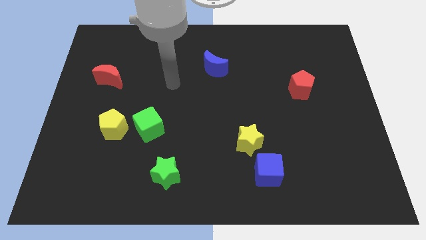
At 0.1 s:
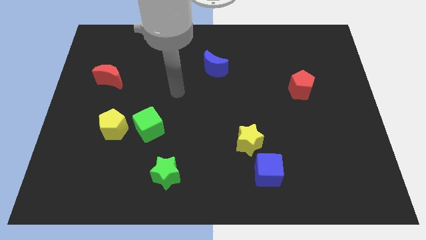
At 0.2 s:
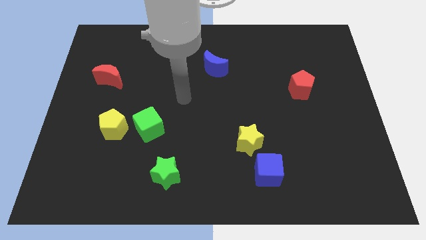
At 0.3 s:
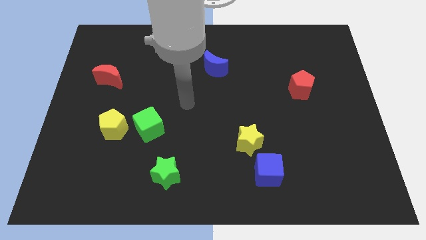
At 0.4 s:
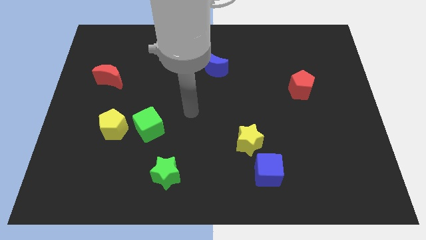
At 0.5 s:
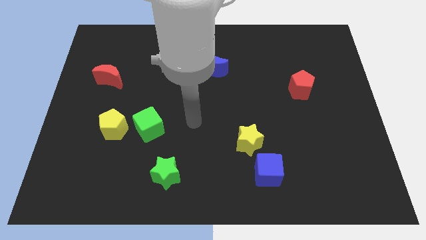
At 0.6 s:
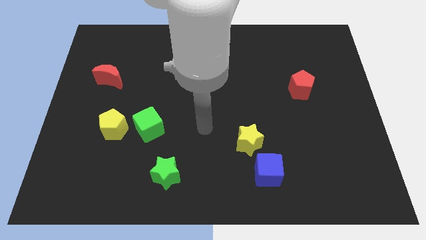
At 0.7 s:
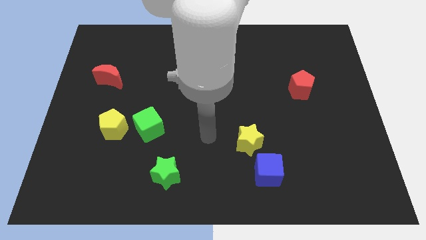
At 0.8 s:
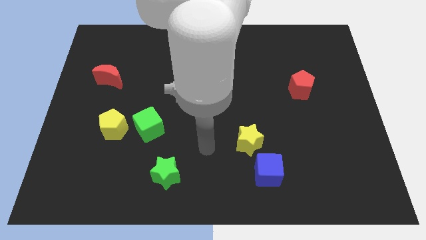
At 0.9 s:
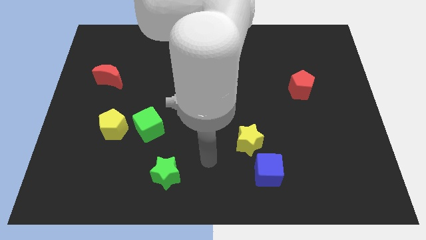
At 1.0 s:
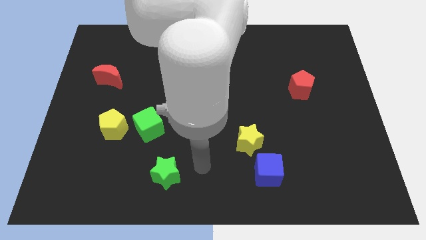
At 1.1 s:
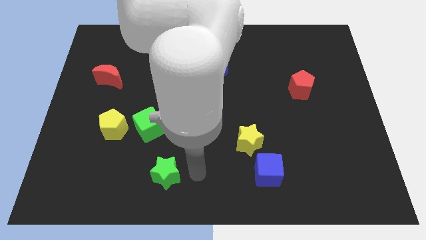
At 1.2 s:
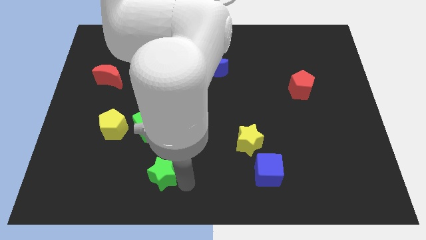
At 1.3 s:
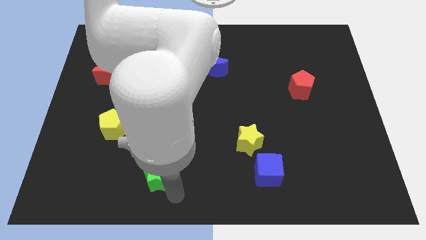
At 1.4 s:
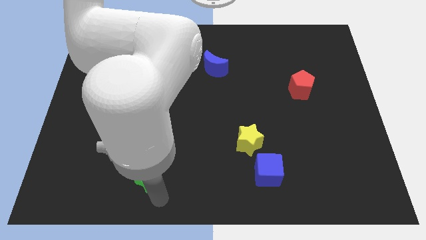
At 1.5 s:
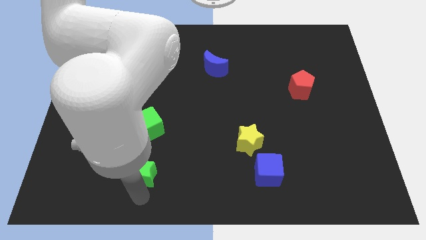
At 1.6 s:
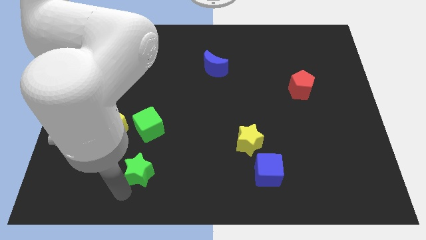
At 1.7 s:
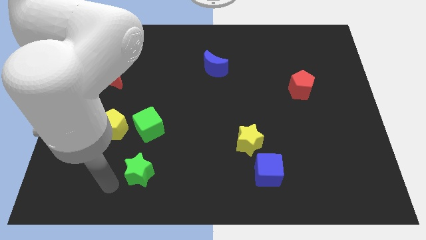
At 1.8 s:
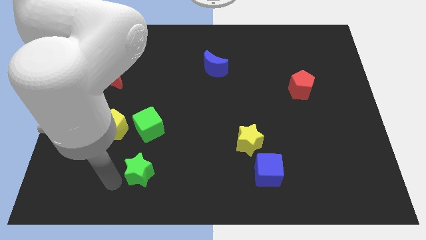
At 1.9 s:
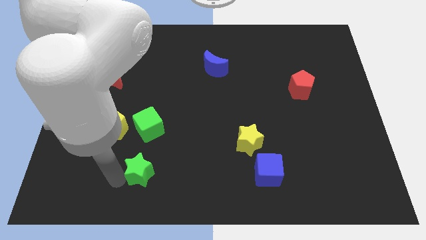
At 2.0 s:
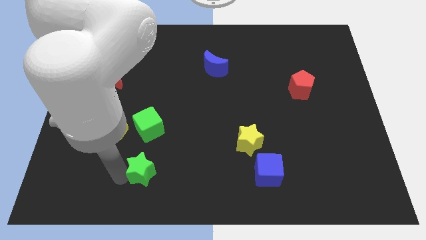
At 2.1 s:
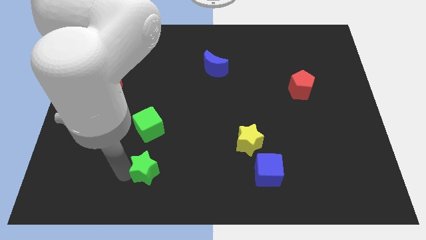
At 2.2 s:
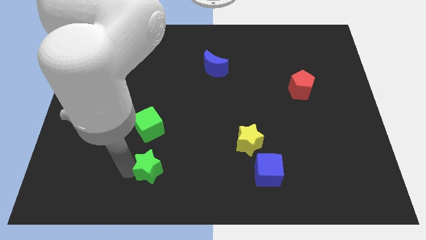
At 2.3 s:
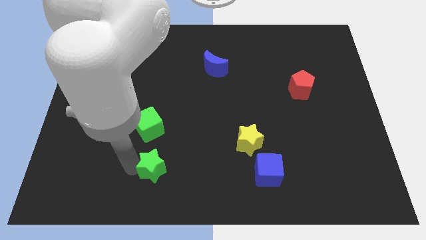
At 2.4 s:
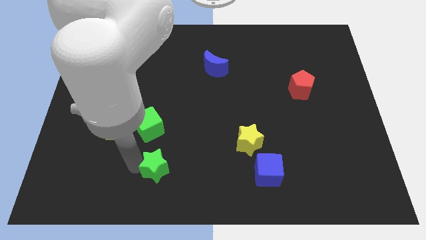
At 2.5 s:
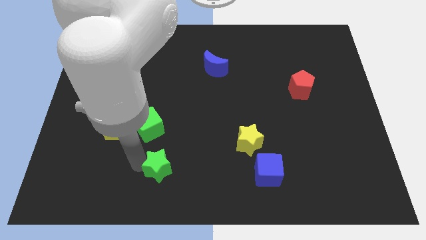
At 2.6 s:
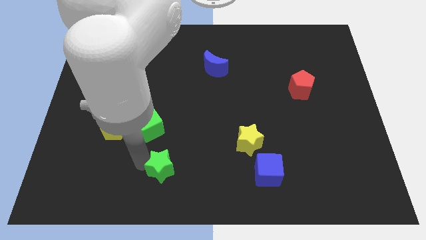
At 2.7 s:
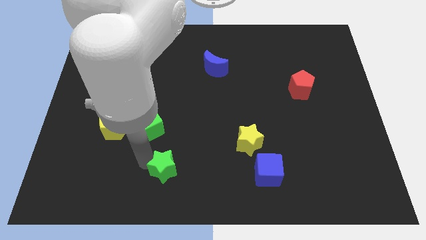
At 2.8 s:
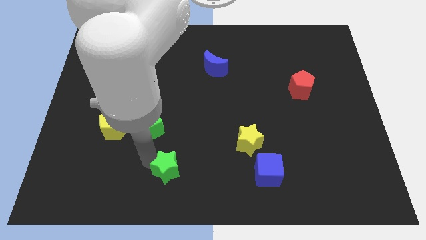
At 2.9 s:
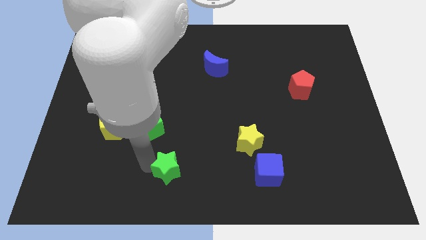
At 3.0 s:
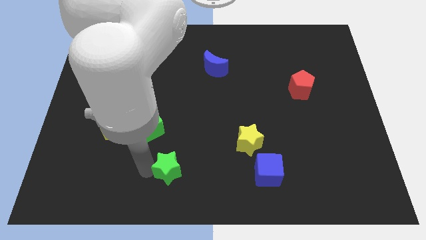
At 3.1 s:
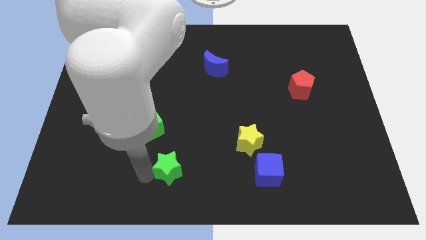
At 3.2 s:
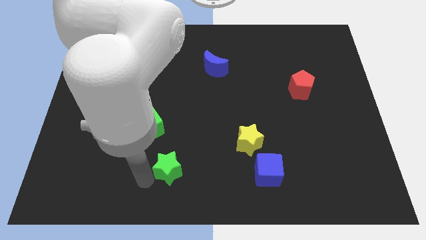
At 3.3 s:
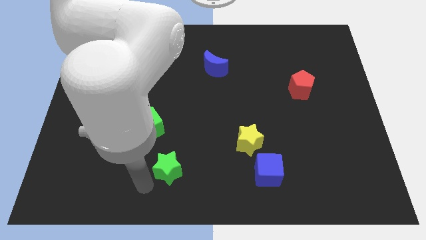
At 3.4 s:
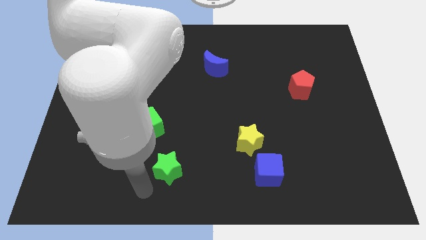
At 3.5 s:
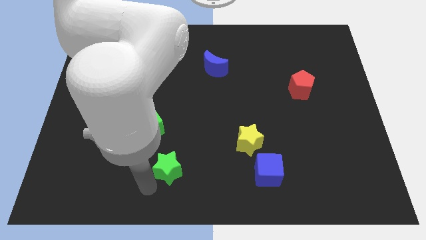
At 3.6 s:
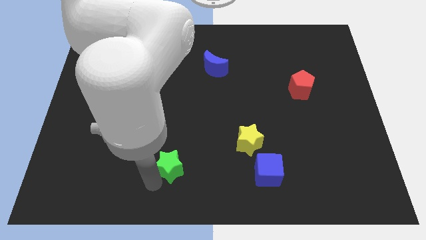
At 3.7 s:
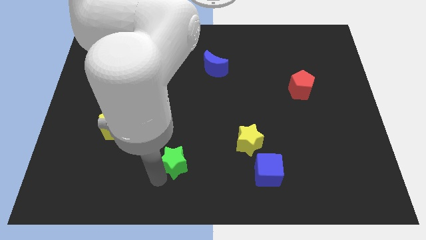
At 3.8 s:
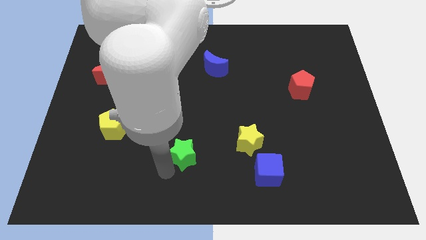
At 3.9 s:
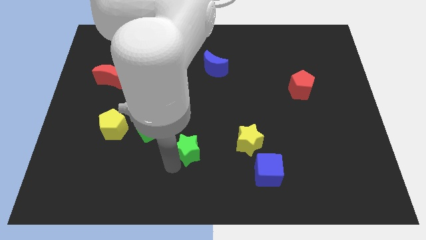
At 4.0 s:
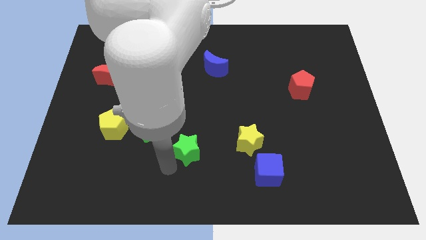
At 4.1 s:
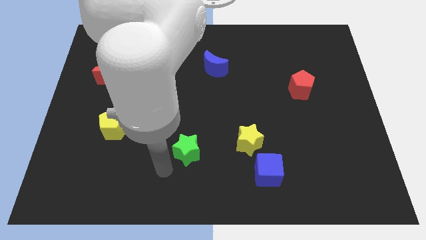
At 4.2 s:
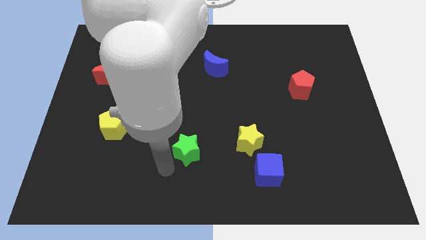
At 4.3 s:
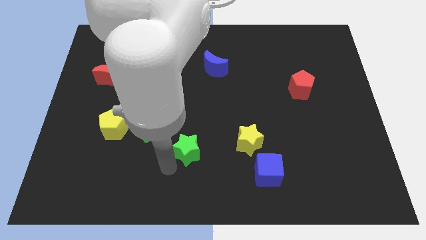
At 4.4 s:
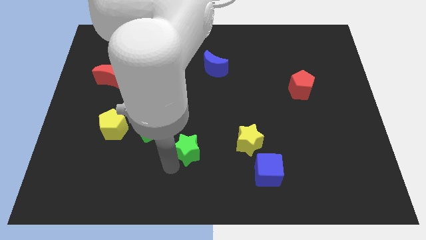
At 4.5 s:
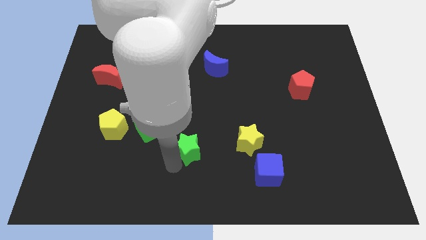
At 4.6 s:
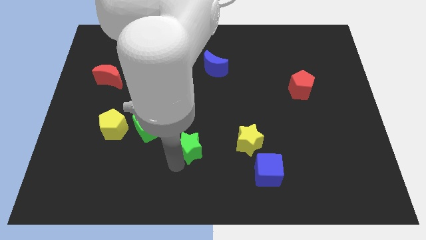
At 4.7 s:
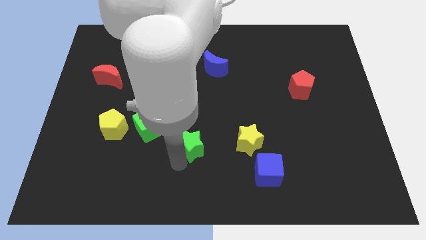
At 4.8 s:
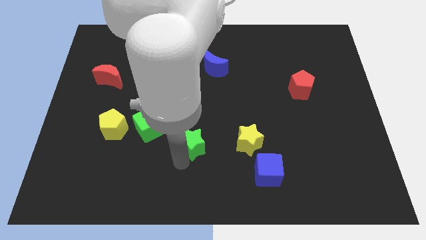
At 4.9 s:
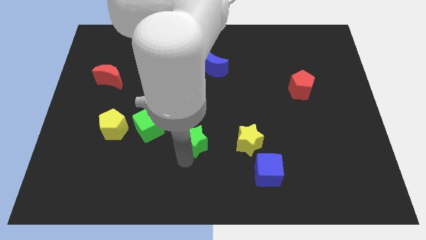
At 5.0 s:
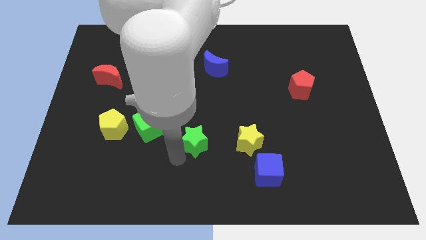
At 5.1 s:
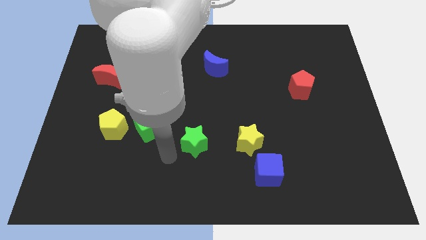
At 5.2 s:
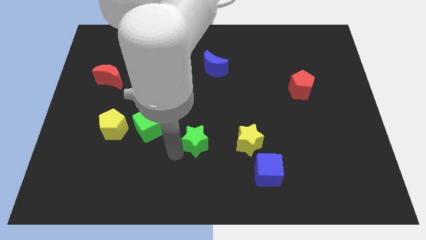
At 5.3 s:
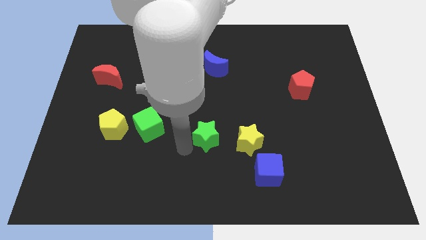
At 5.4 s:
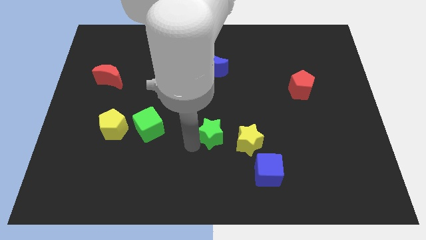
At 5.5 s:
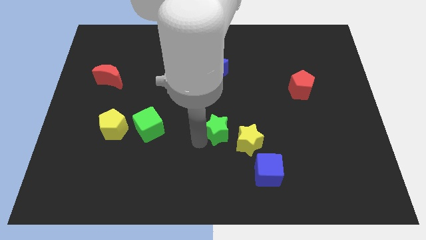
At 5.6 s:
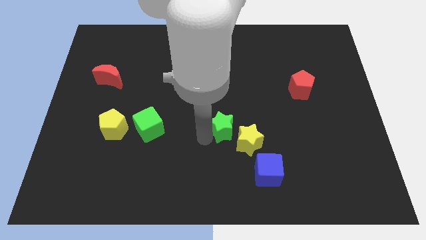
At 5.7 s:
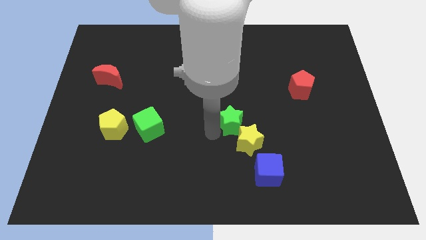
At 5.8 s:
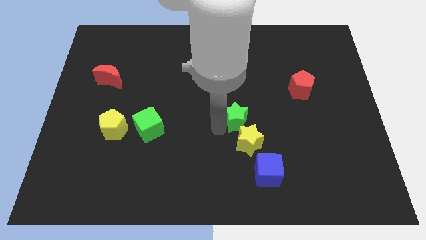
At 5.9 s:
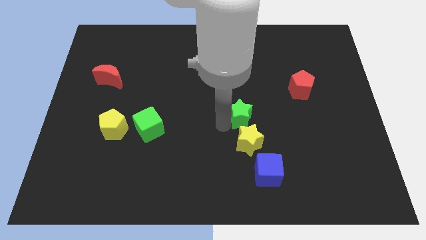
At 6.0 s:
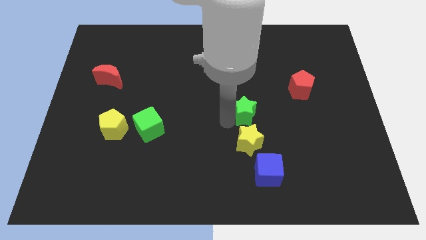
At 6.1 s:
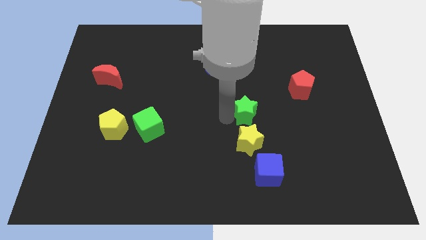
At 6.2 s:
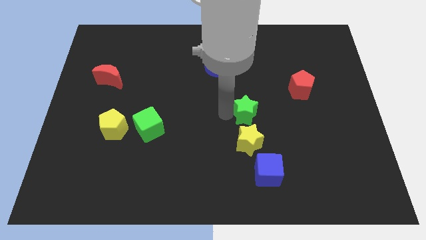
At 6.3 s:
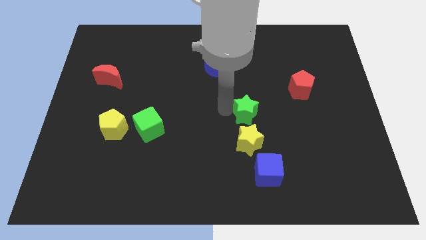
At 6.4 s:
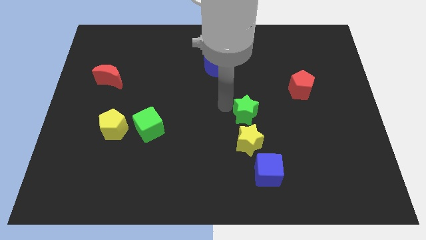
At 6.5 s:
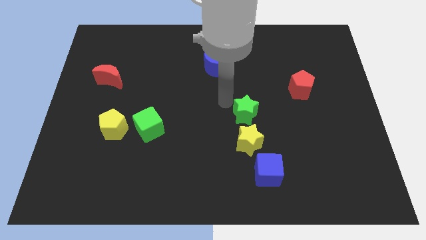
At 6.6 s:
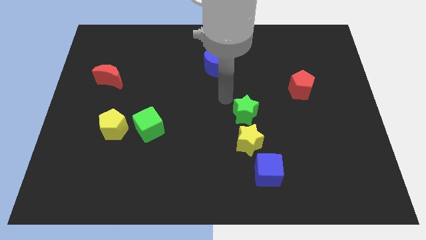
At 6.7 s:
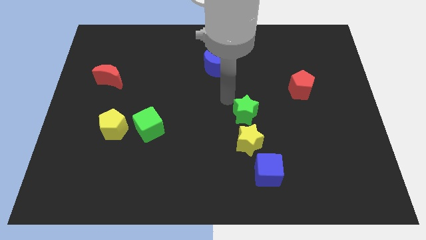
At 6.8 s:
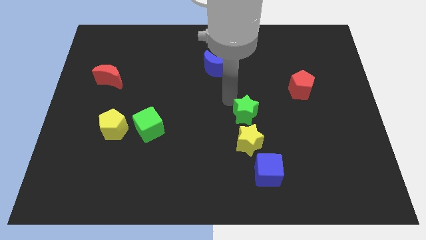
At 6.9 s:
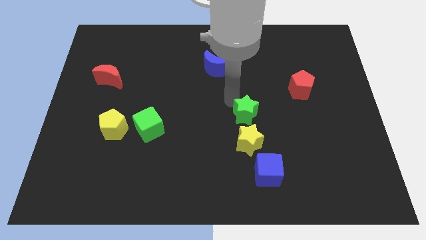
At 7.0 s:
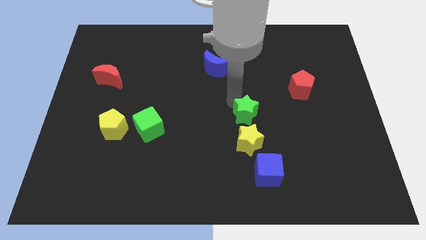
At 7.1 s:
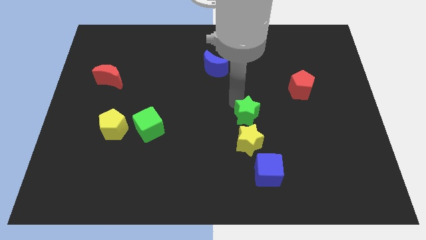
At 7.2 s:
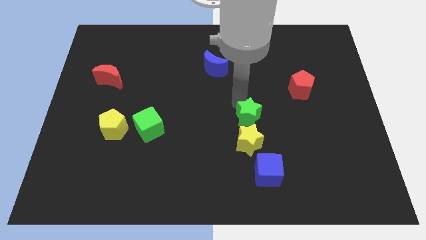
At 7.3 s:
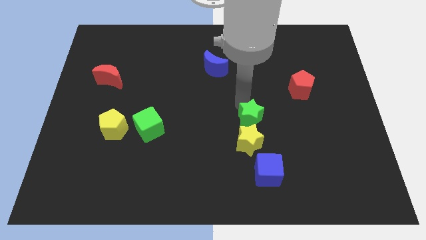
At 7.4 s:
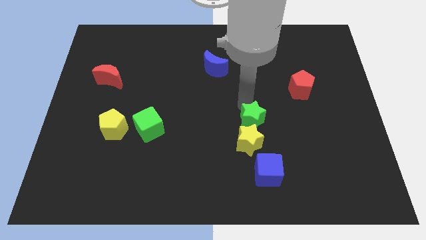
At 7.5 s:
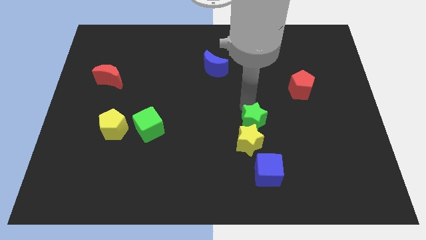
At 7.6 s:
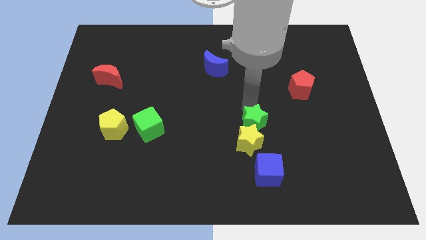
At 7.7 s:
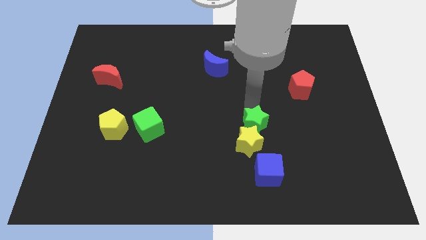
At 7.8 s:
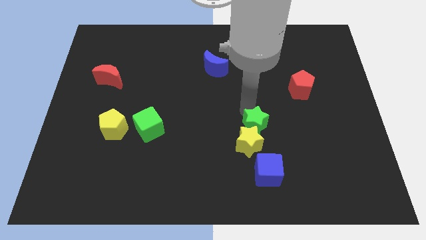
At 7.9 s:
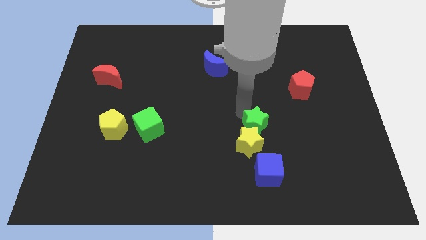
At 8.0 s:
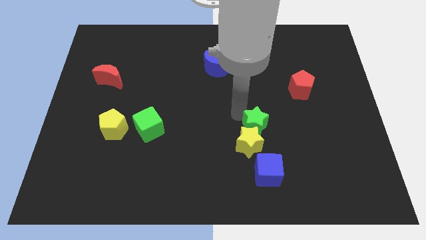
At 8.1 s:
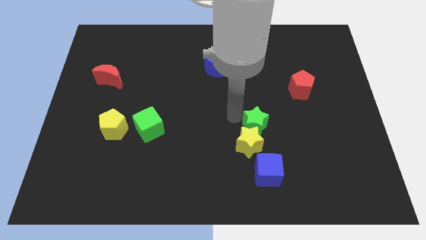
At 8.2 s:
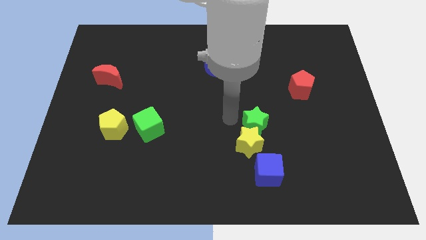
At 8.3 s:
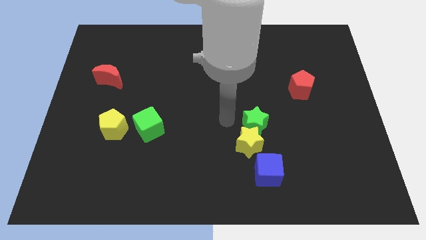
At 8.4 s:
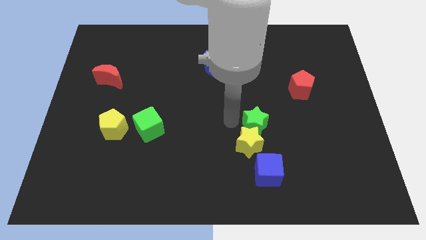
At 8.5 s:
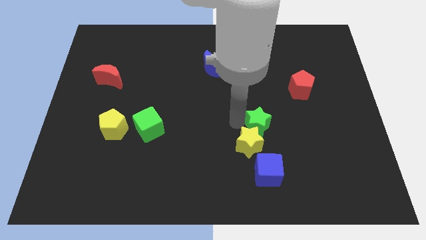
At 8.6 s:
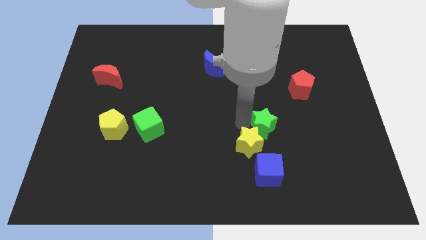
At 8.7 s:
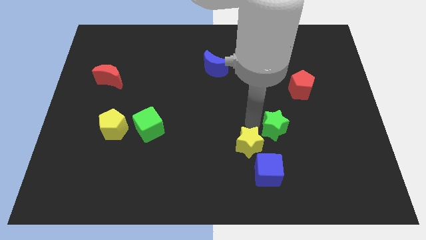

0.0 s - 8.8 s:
move the green star to the right side of the yellow star
